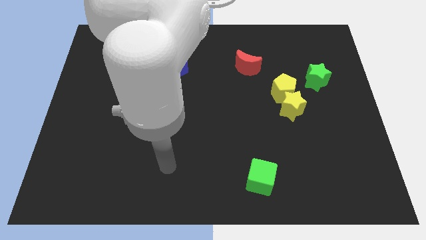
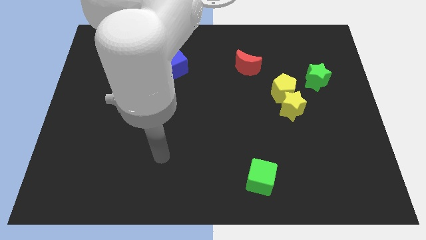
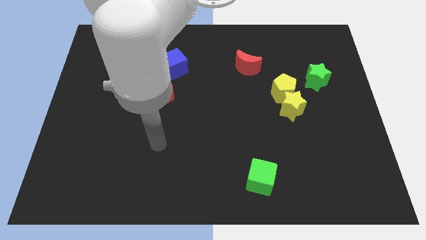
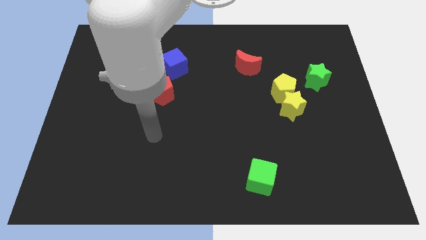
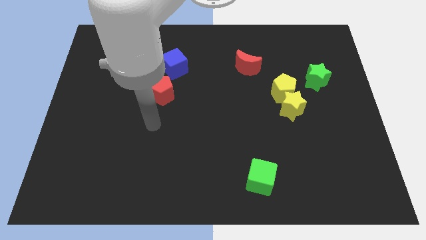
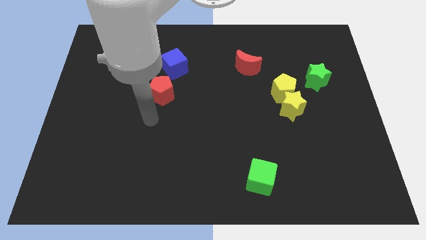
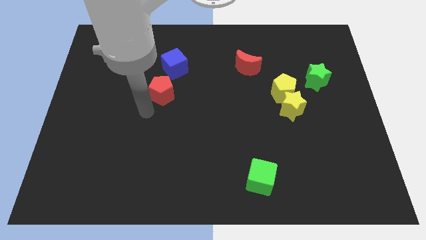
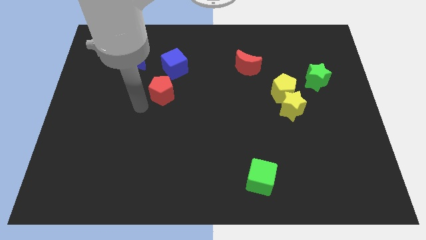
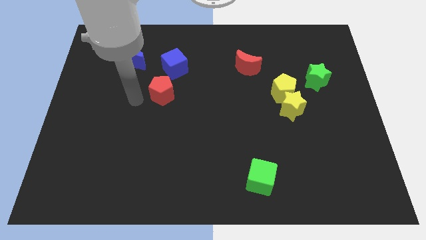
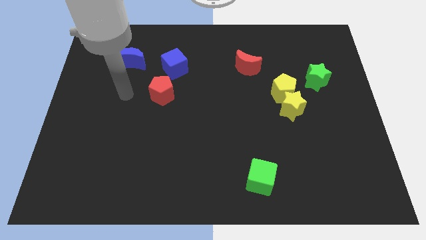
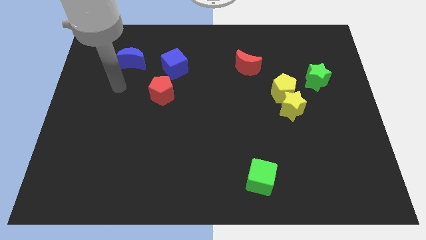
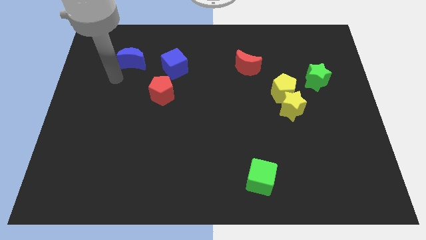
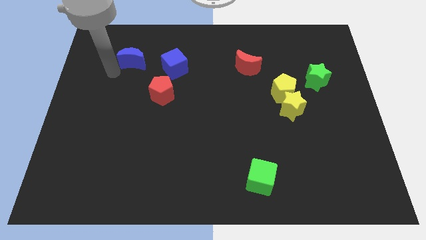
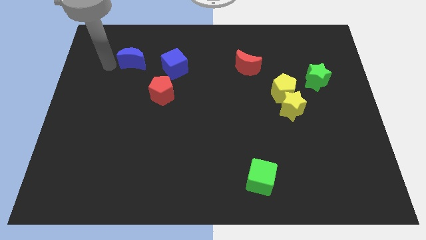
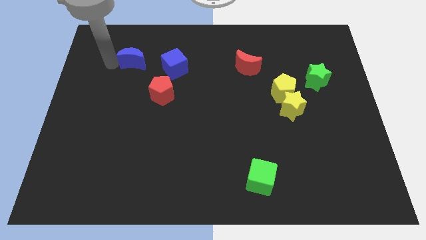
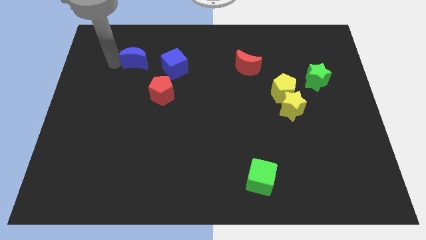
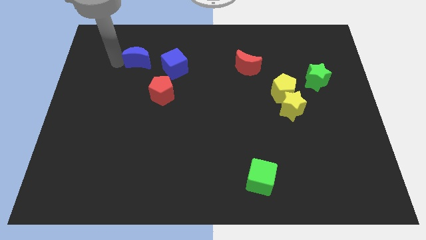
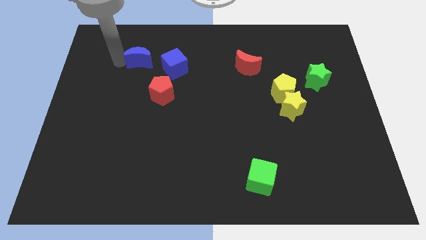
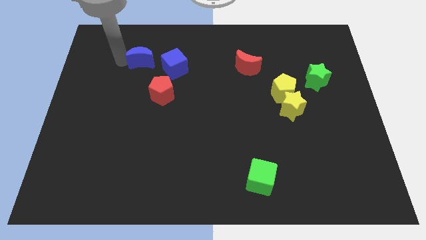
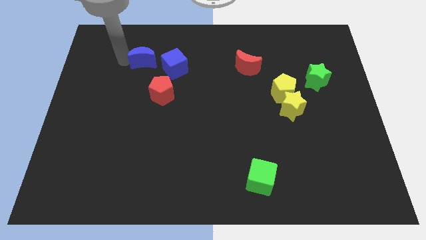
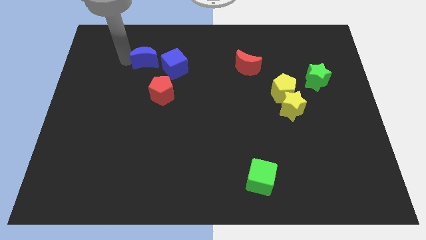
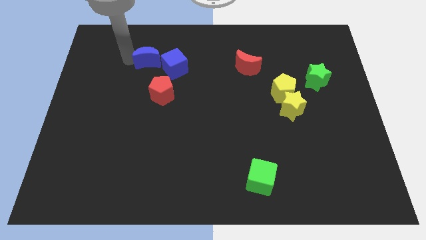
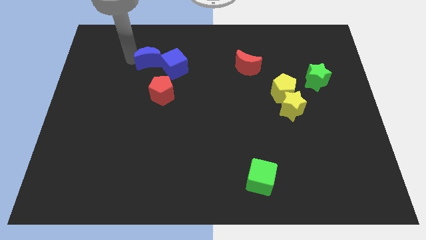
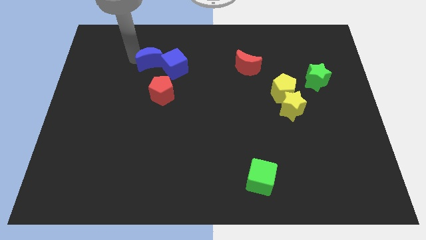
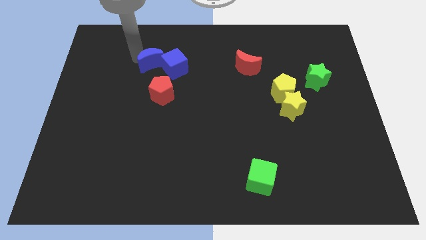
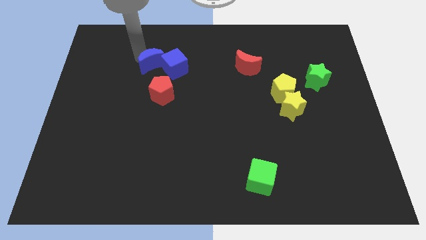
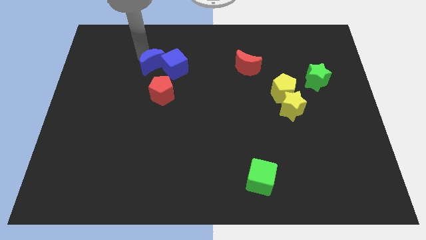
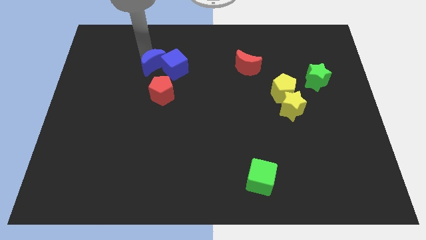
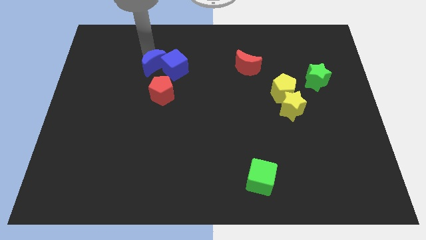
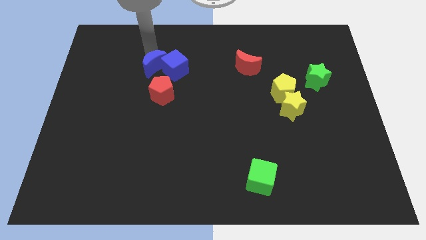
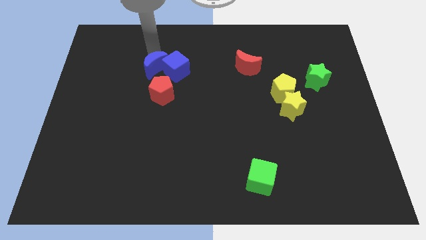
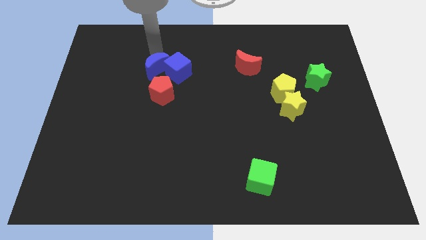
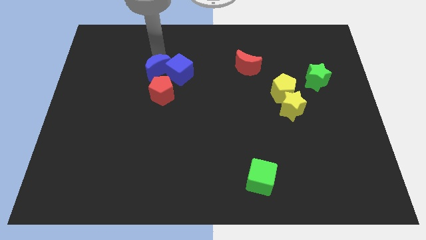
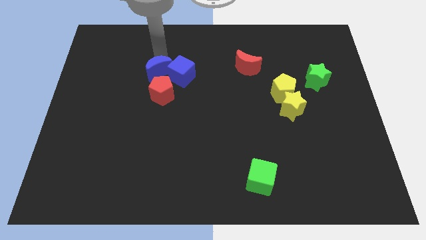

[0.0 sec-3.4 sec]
slightly slide the blue moon to the right

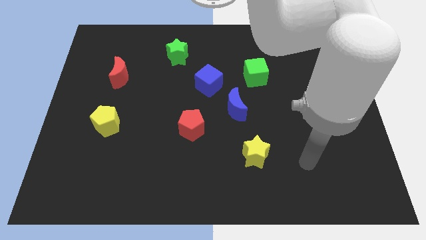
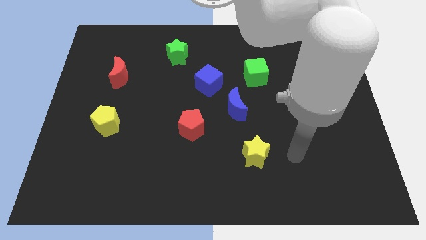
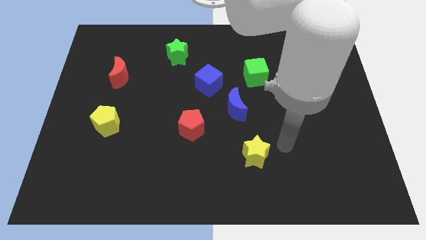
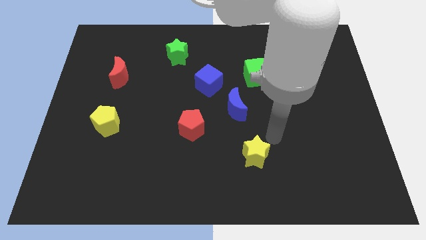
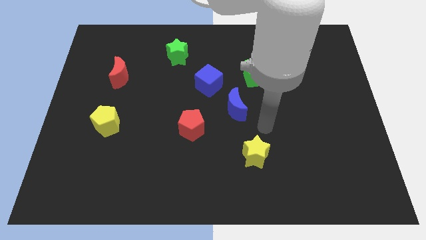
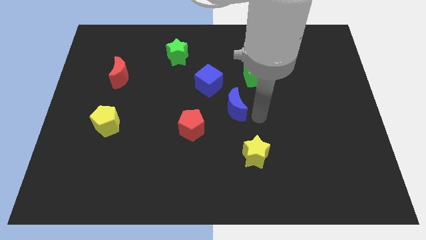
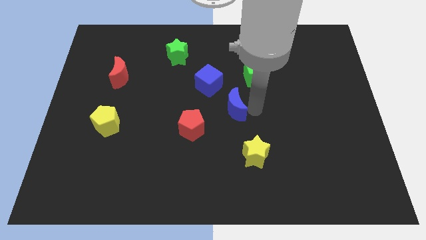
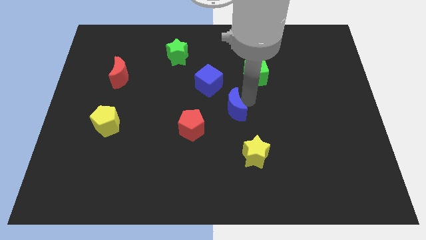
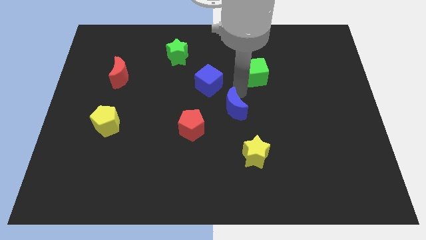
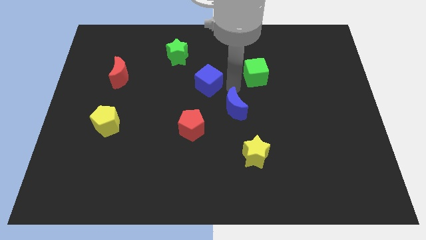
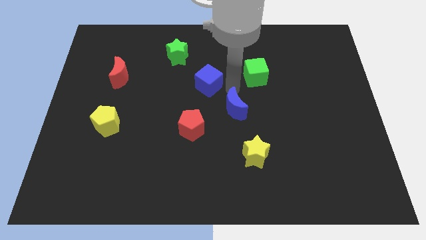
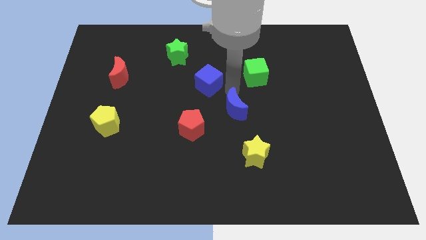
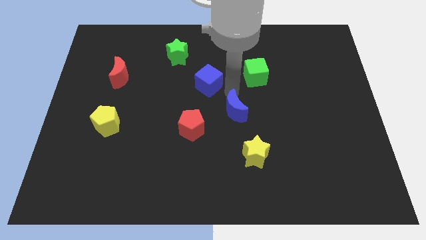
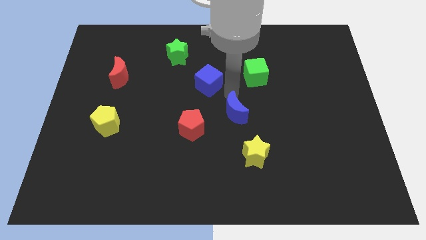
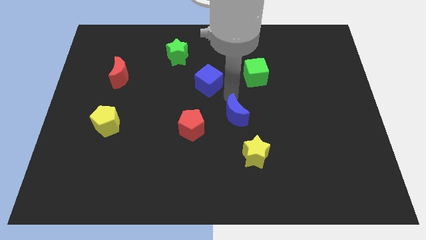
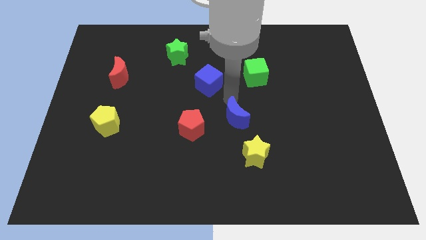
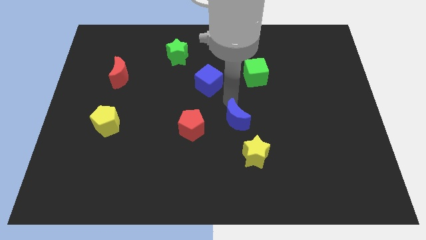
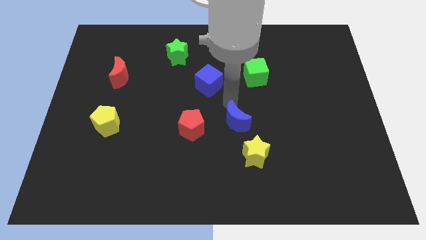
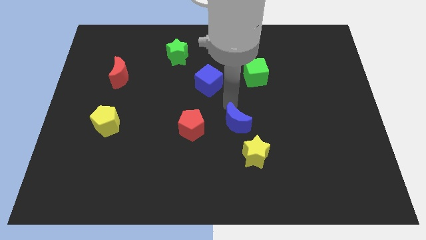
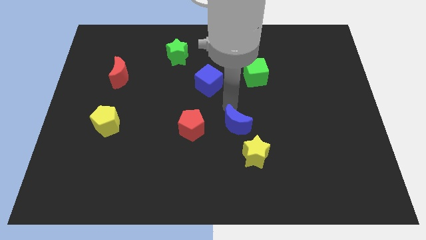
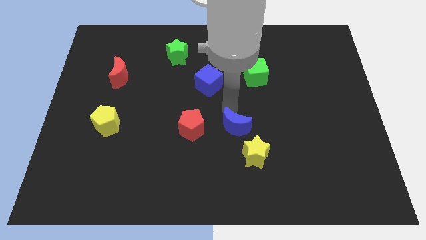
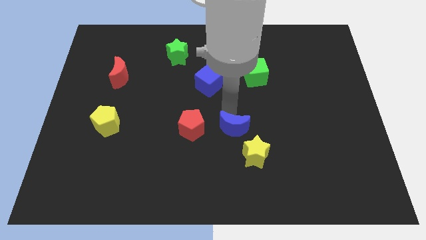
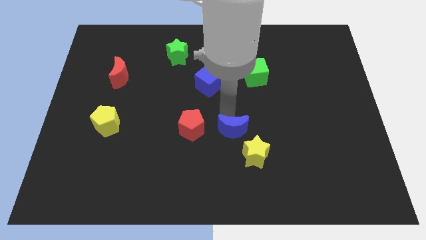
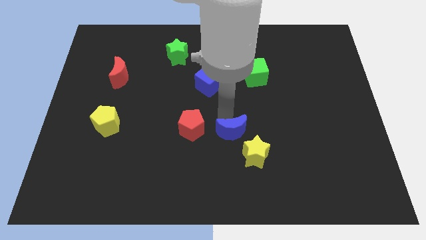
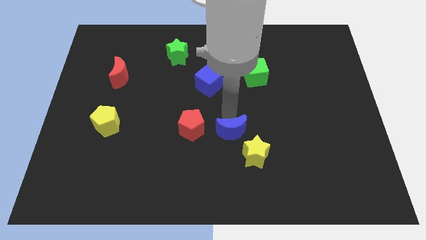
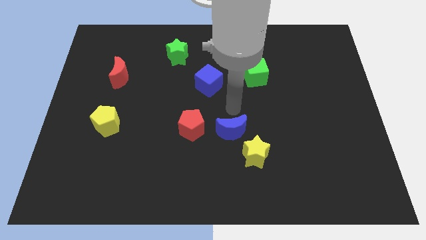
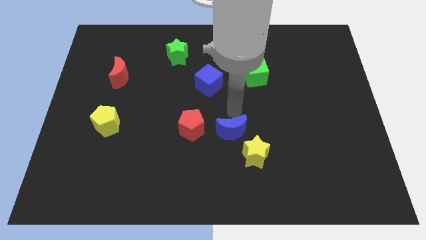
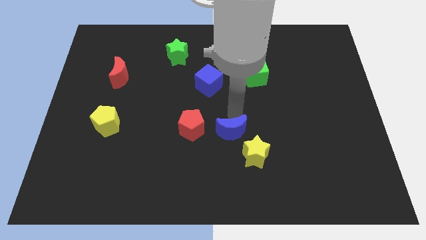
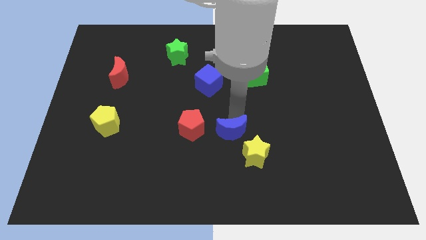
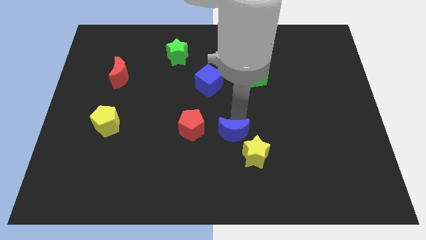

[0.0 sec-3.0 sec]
slide the blue moon a little down

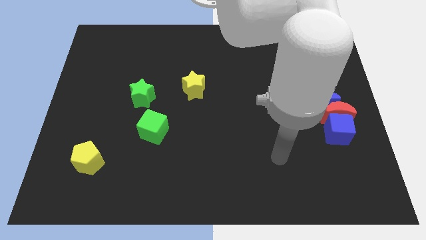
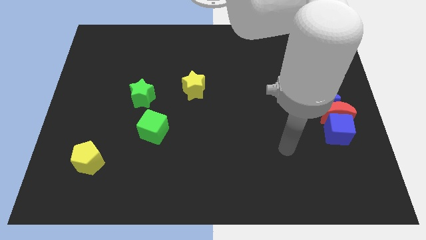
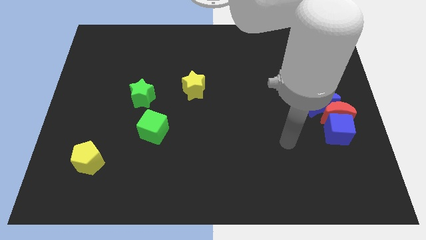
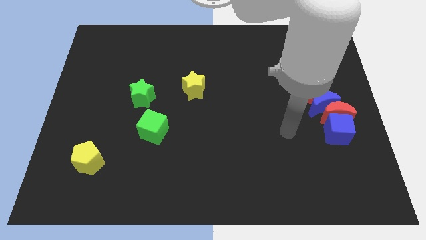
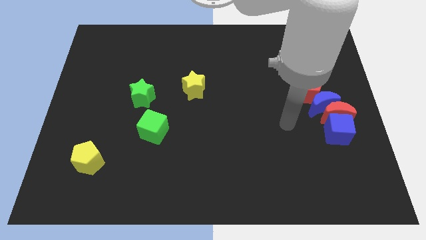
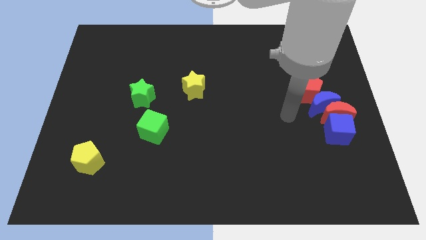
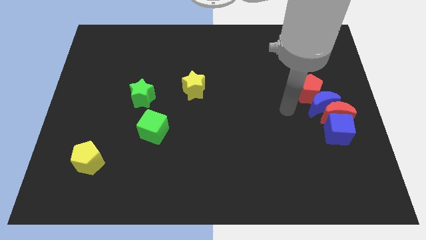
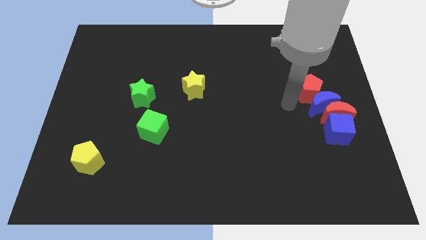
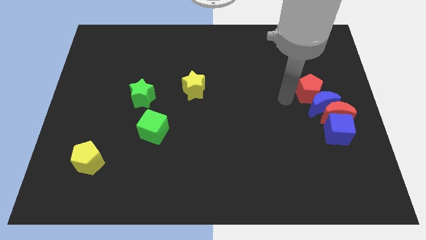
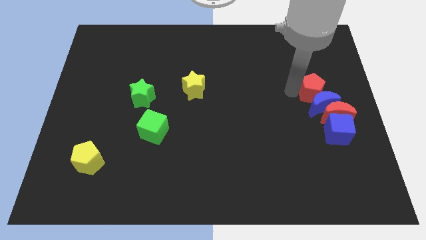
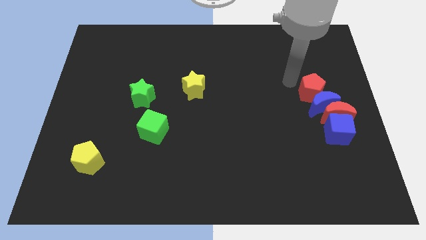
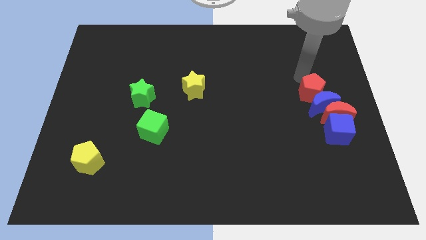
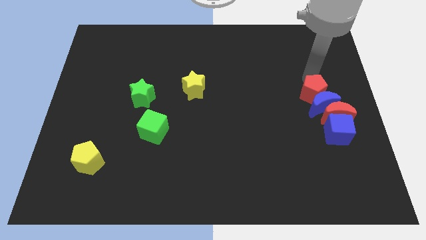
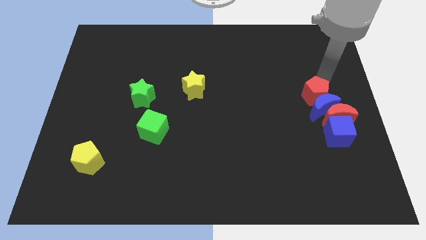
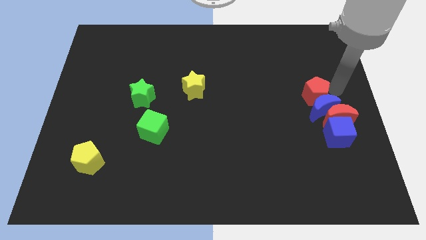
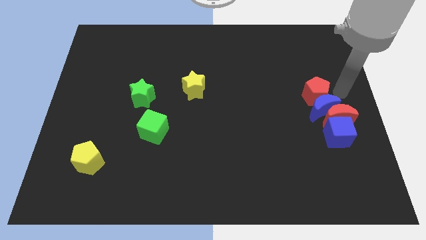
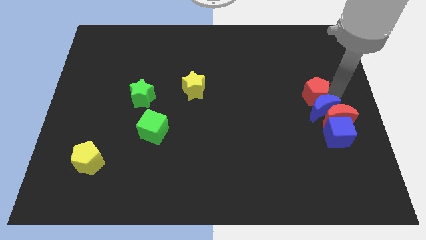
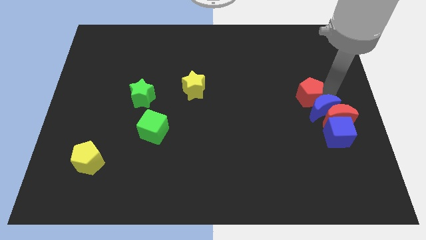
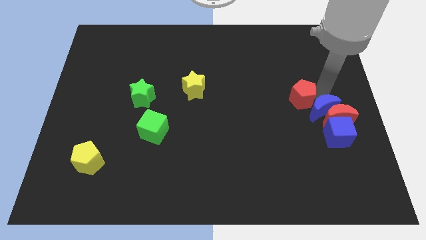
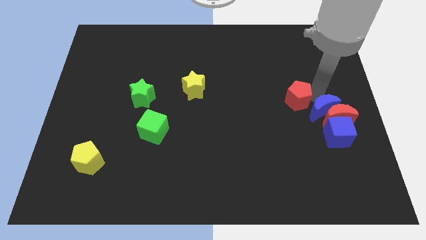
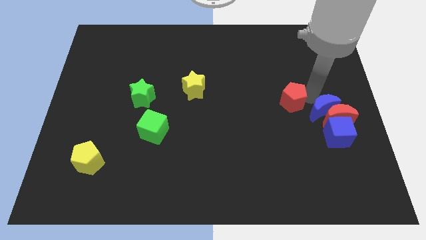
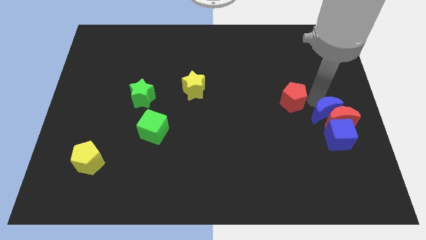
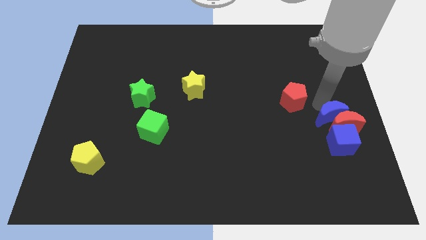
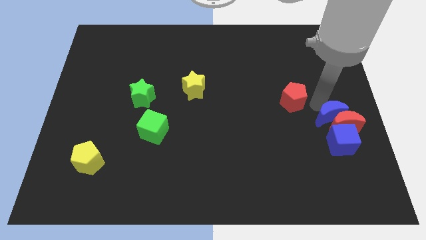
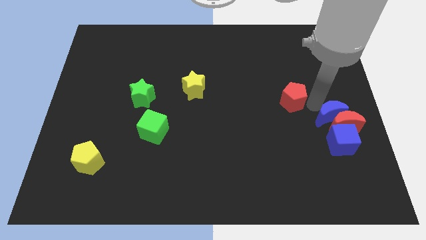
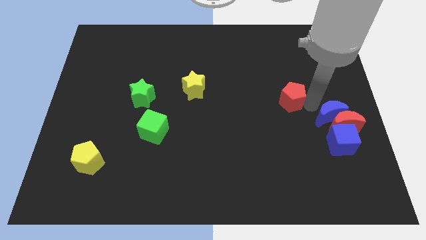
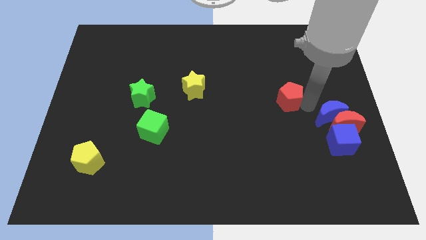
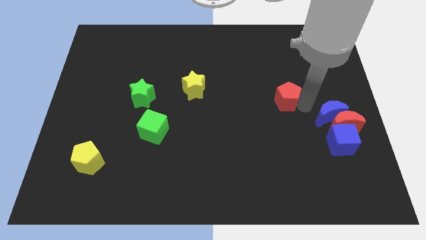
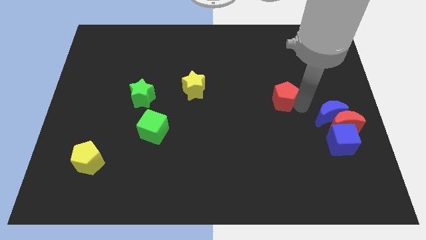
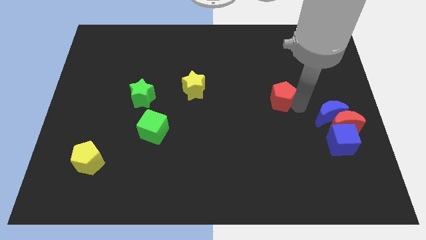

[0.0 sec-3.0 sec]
slide the red pentagon left somewhat
